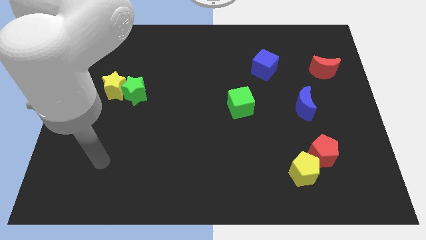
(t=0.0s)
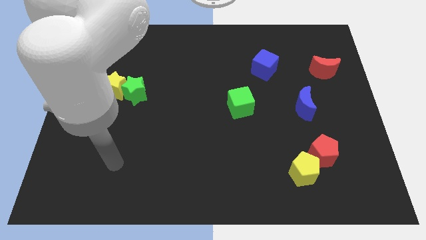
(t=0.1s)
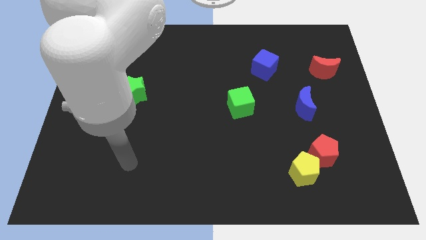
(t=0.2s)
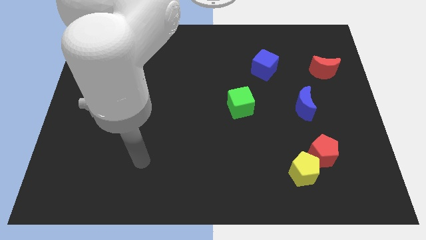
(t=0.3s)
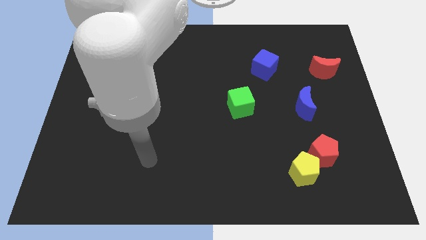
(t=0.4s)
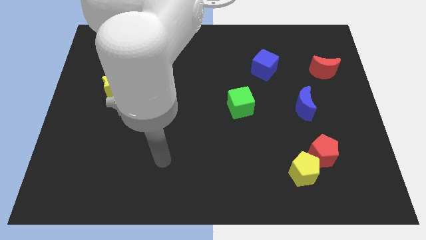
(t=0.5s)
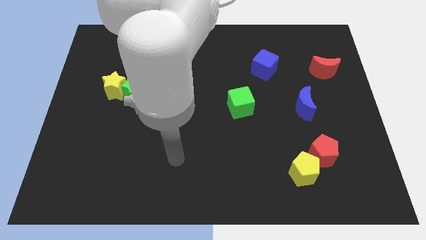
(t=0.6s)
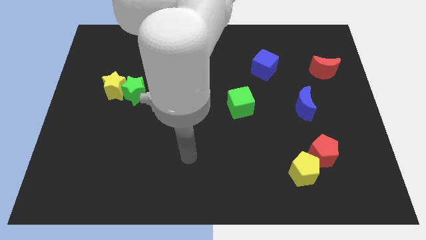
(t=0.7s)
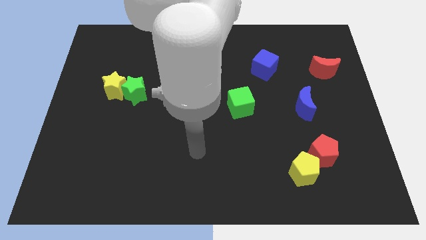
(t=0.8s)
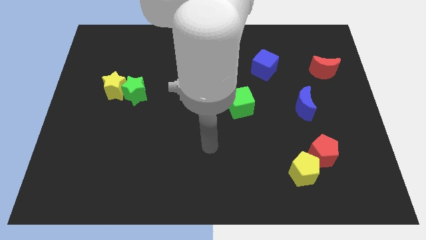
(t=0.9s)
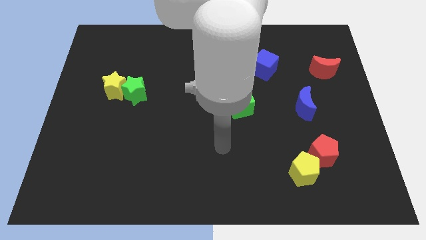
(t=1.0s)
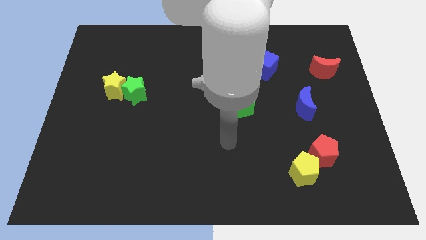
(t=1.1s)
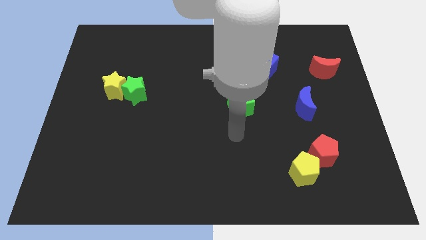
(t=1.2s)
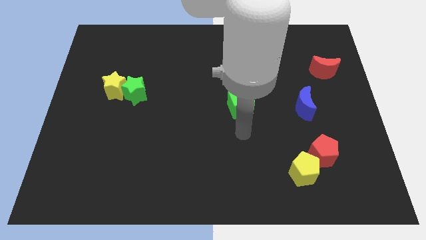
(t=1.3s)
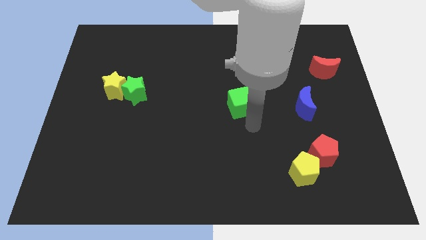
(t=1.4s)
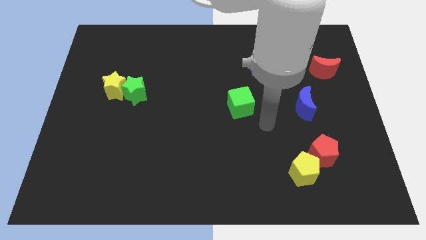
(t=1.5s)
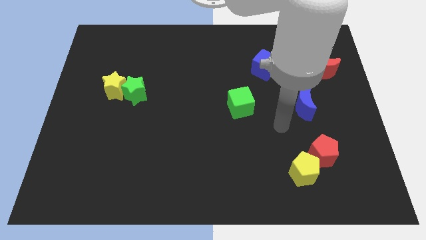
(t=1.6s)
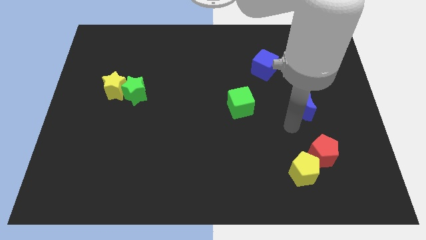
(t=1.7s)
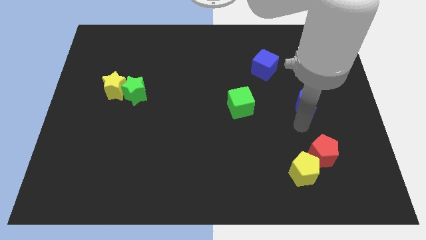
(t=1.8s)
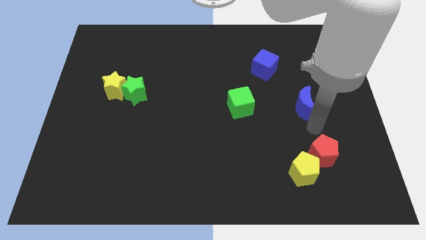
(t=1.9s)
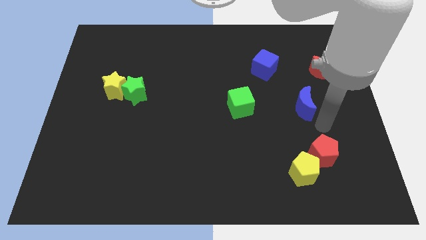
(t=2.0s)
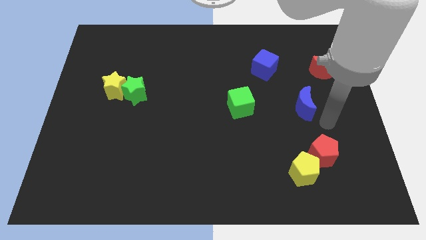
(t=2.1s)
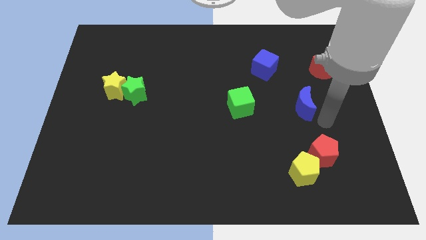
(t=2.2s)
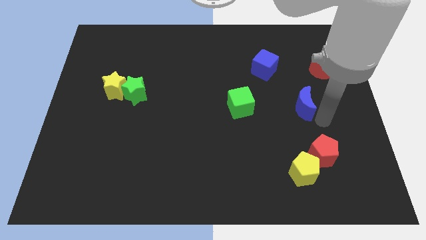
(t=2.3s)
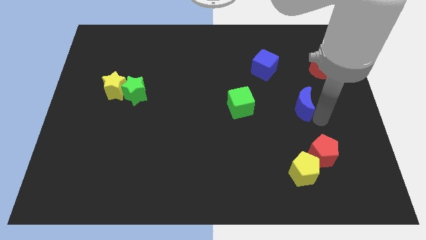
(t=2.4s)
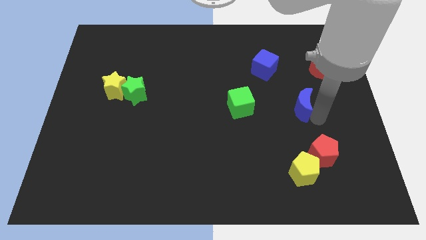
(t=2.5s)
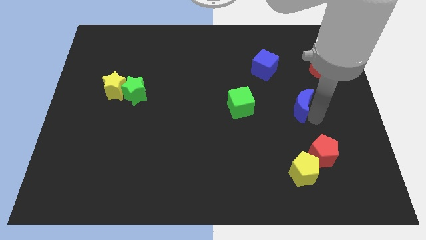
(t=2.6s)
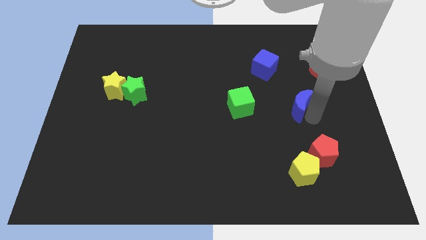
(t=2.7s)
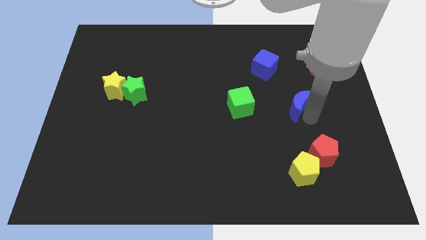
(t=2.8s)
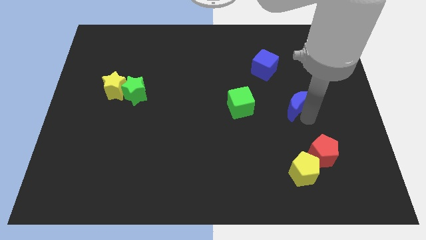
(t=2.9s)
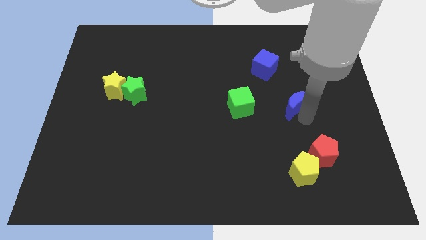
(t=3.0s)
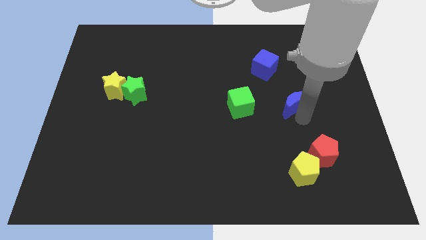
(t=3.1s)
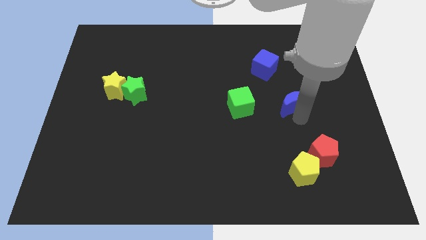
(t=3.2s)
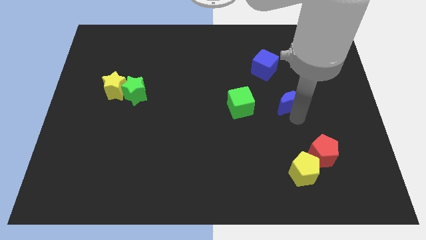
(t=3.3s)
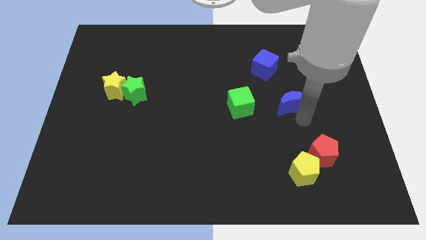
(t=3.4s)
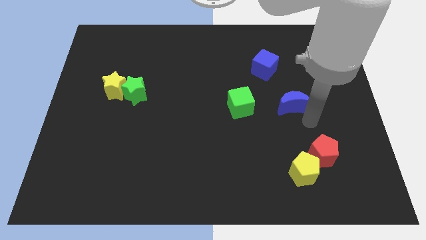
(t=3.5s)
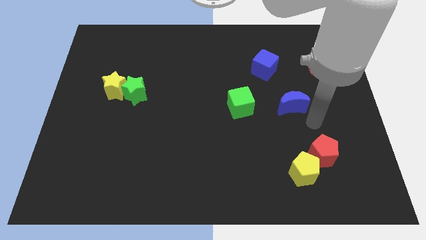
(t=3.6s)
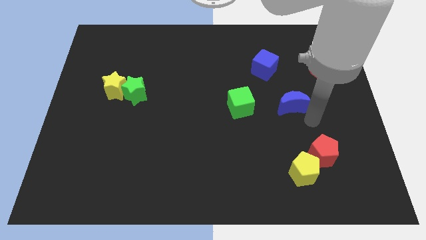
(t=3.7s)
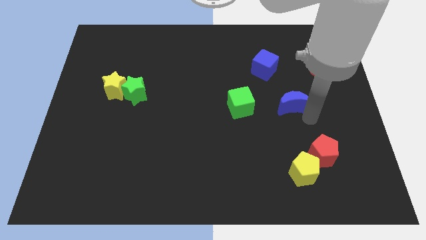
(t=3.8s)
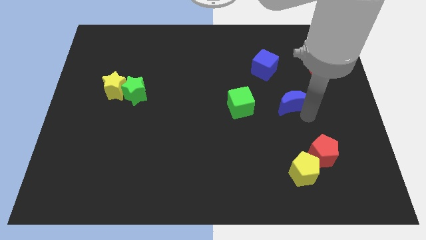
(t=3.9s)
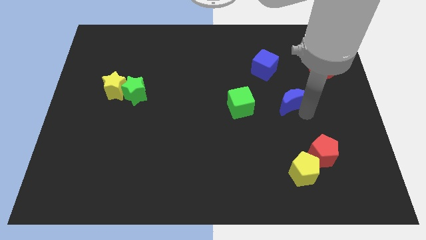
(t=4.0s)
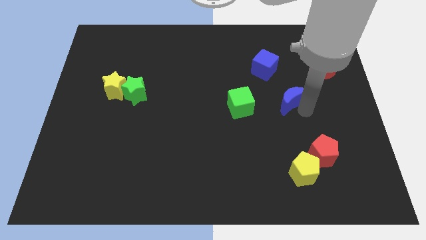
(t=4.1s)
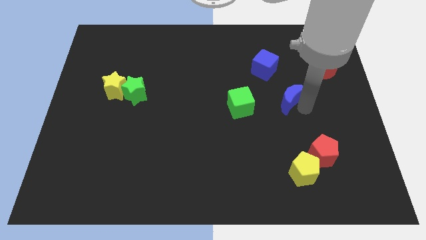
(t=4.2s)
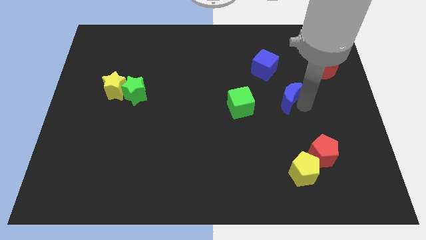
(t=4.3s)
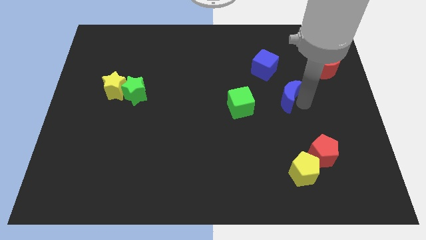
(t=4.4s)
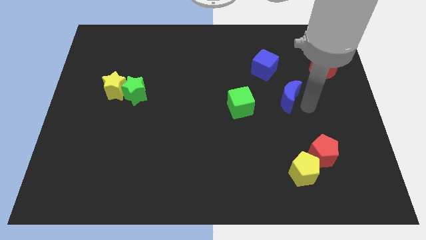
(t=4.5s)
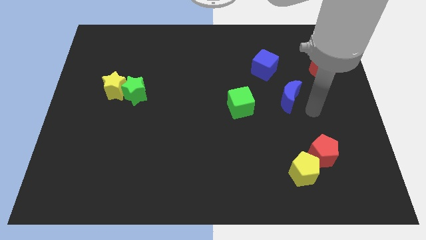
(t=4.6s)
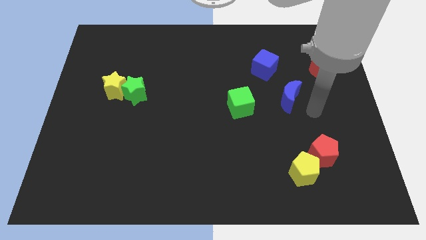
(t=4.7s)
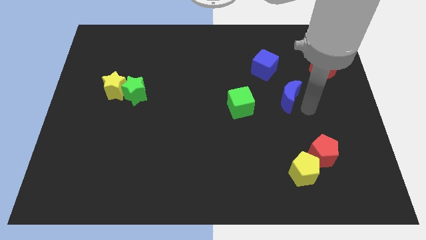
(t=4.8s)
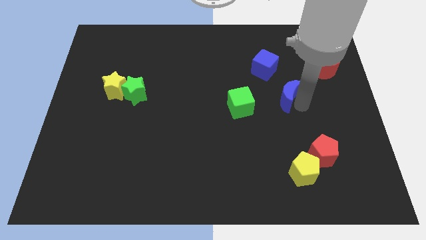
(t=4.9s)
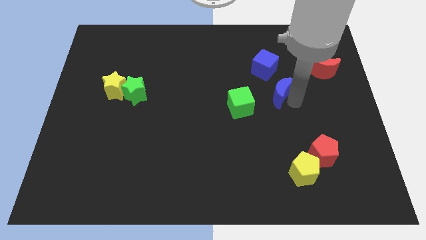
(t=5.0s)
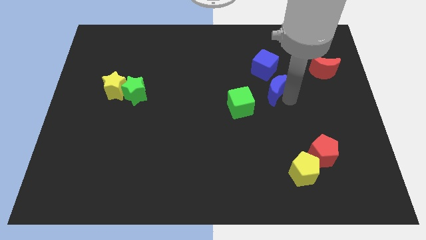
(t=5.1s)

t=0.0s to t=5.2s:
move the blue moon a little bit diagonally up and to the left

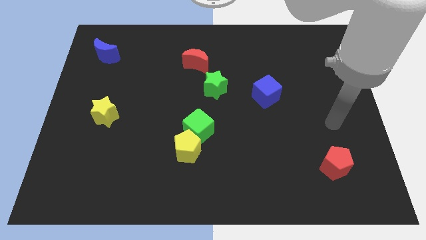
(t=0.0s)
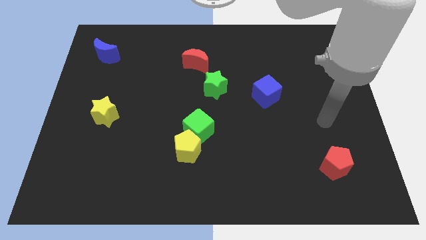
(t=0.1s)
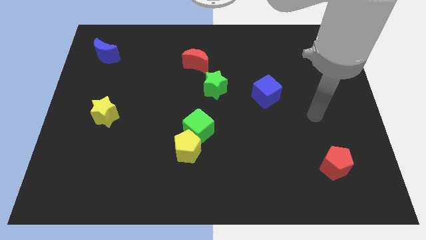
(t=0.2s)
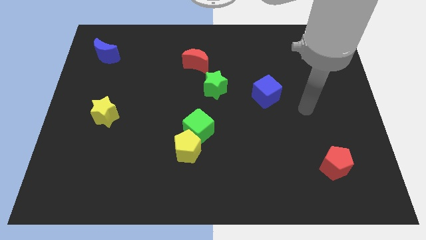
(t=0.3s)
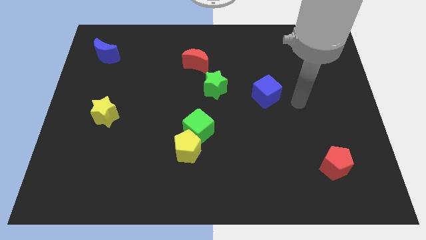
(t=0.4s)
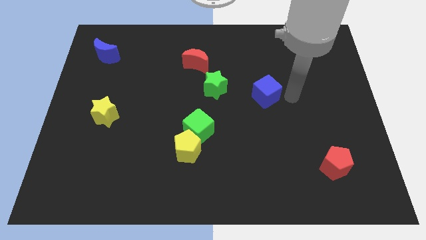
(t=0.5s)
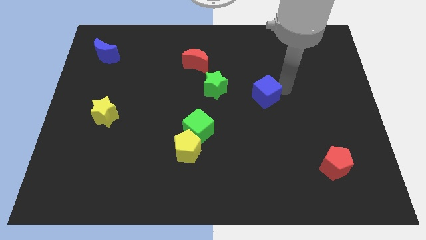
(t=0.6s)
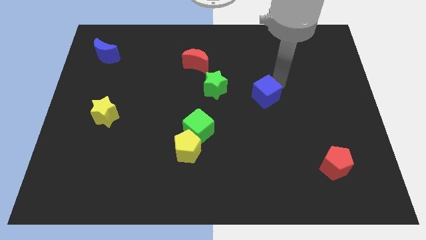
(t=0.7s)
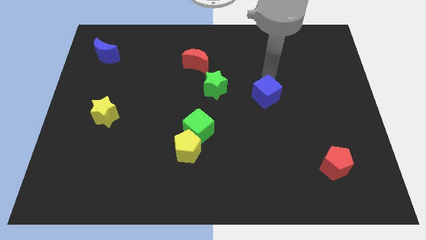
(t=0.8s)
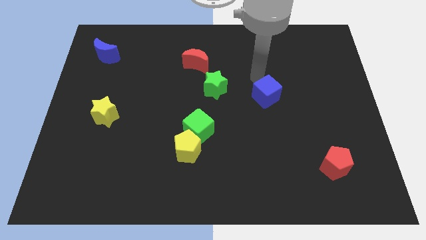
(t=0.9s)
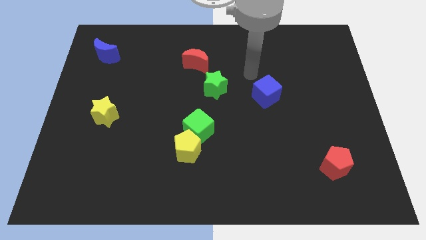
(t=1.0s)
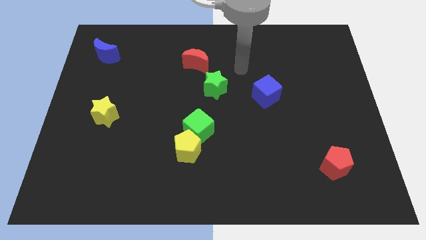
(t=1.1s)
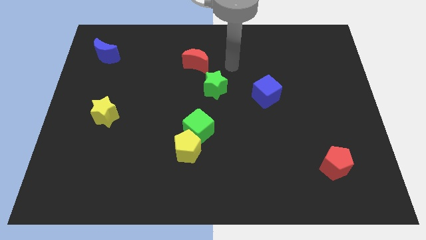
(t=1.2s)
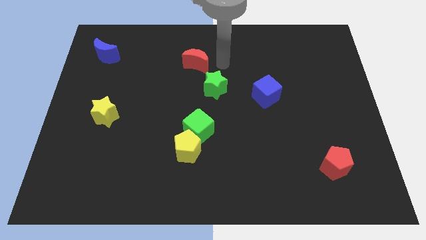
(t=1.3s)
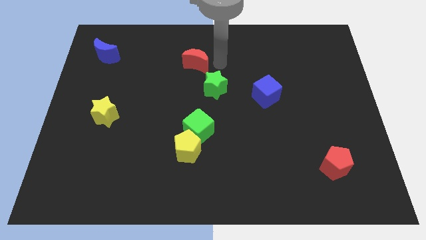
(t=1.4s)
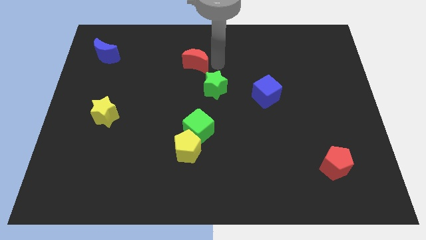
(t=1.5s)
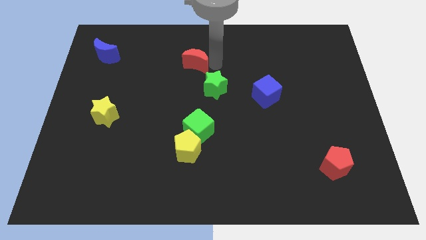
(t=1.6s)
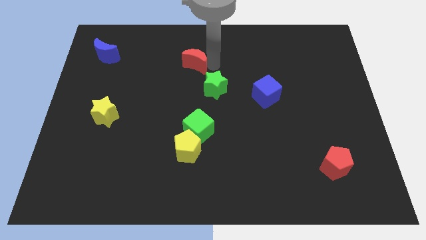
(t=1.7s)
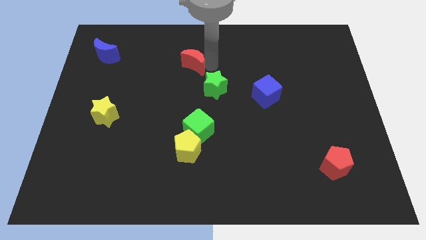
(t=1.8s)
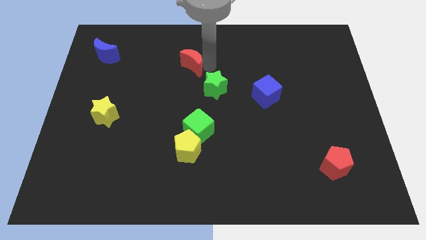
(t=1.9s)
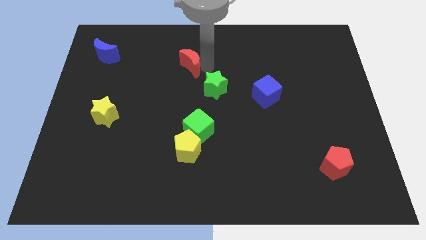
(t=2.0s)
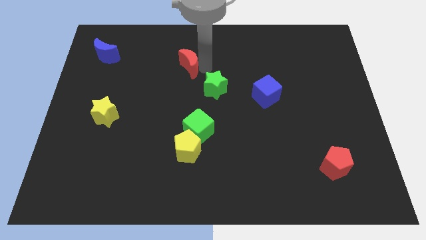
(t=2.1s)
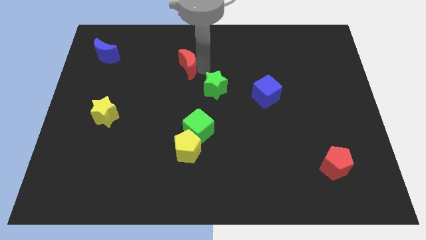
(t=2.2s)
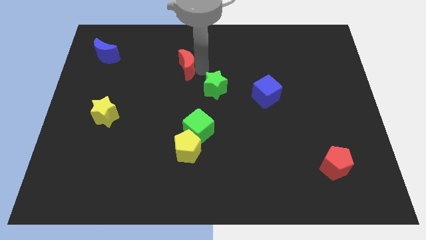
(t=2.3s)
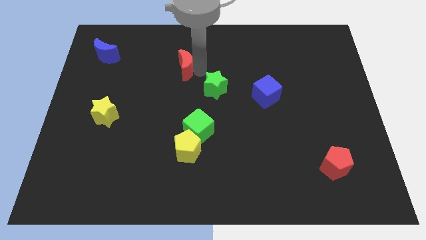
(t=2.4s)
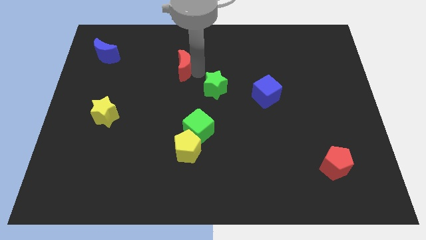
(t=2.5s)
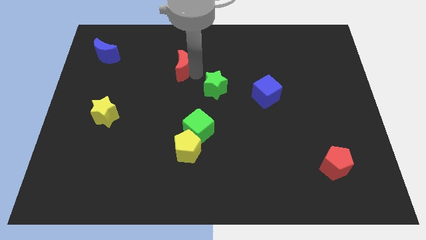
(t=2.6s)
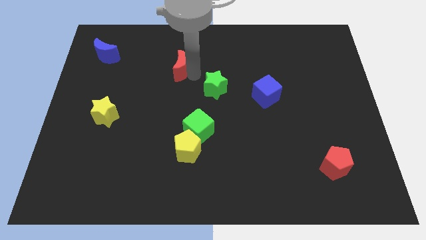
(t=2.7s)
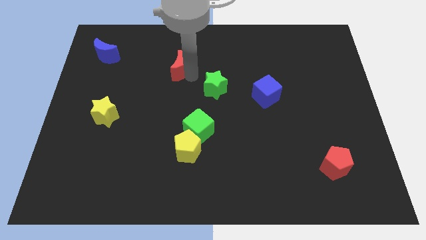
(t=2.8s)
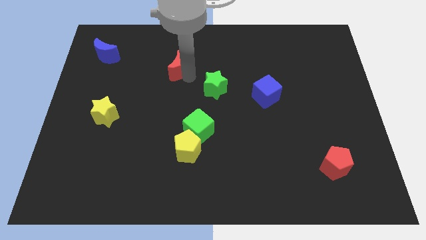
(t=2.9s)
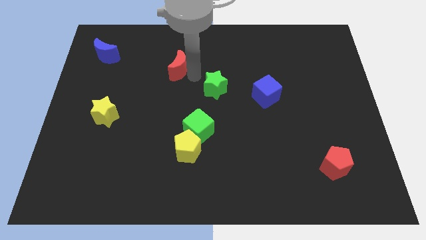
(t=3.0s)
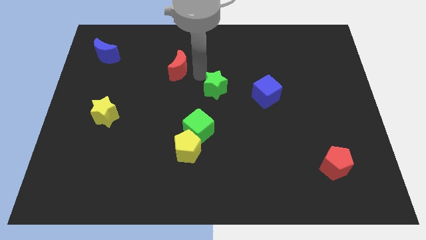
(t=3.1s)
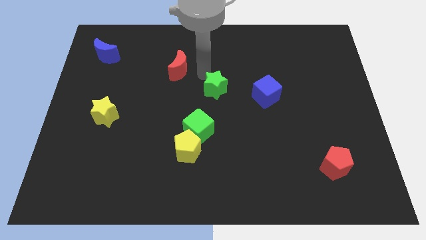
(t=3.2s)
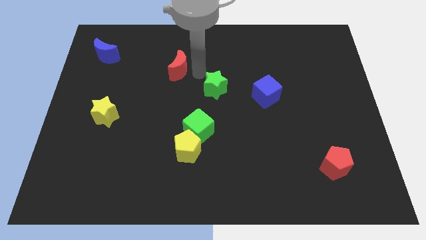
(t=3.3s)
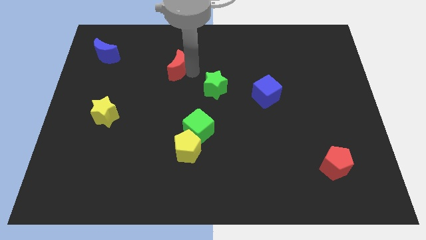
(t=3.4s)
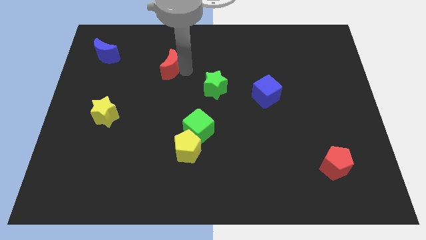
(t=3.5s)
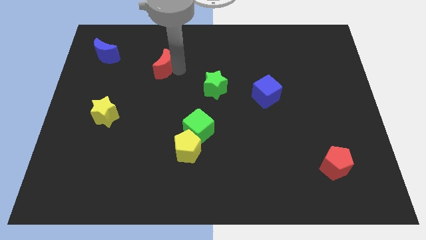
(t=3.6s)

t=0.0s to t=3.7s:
push the red moon a little bit to the left
